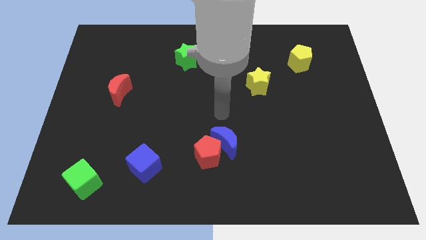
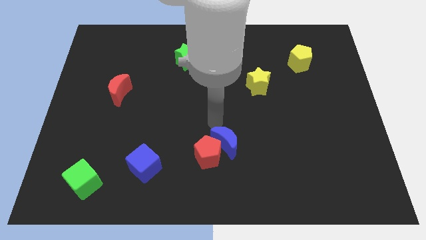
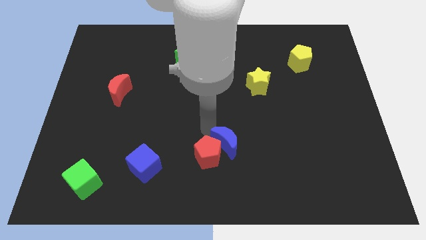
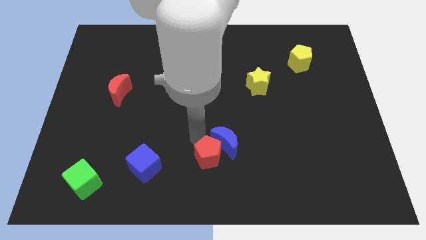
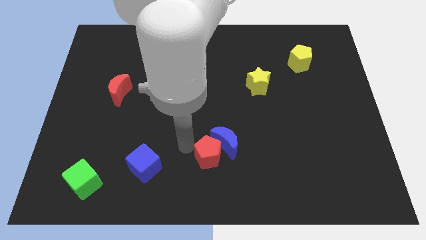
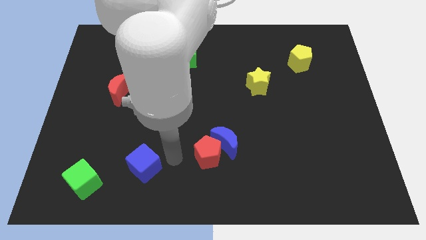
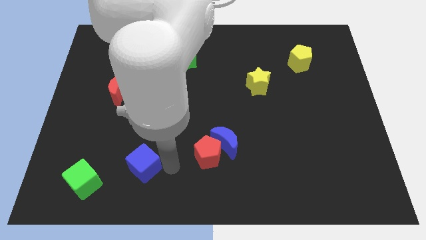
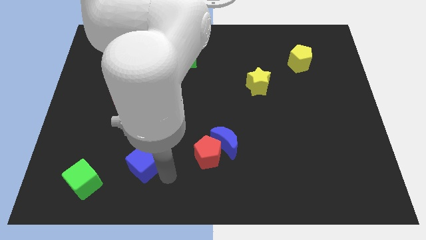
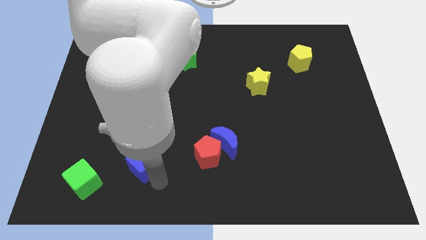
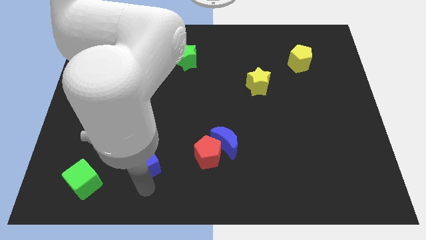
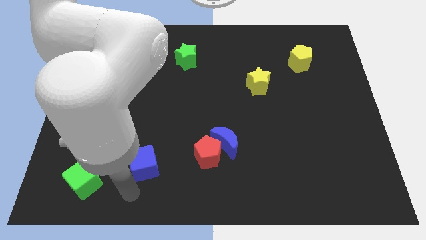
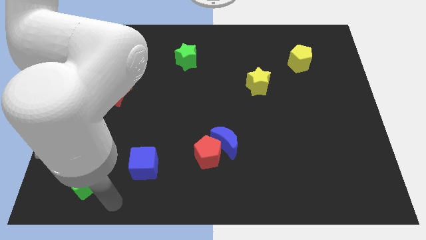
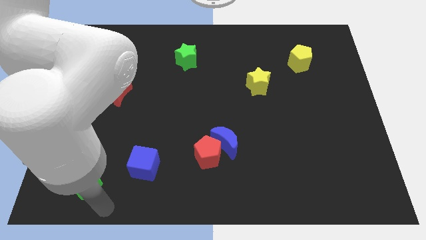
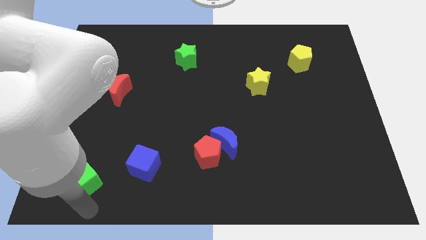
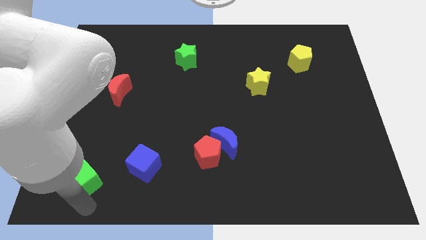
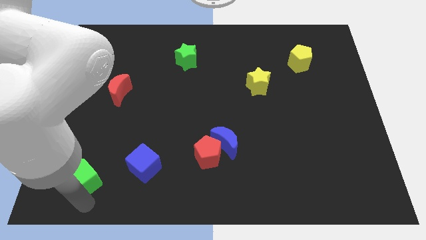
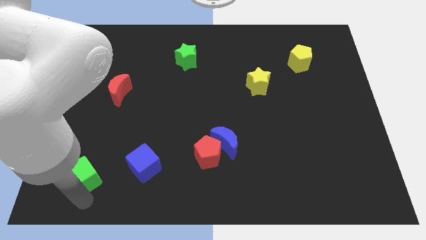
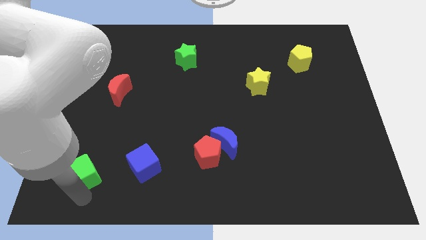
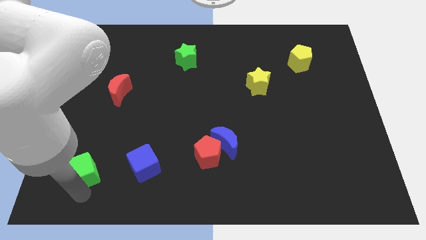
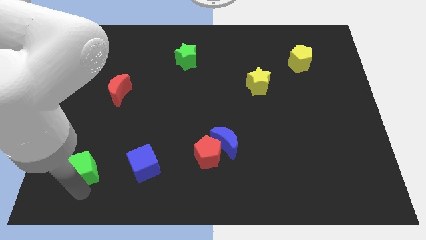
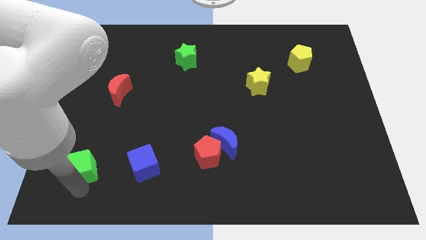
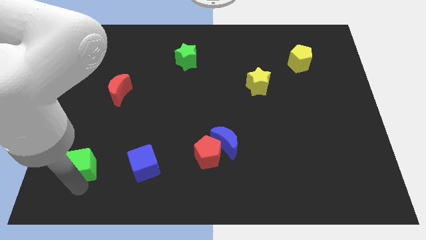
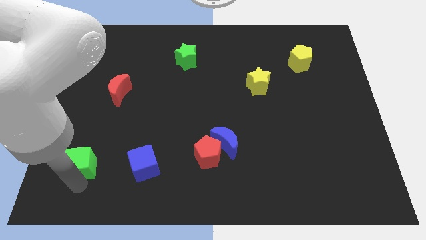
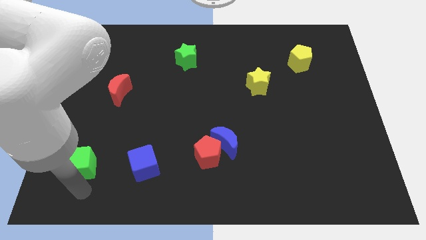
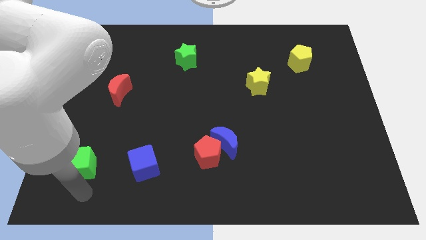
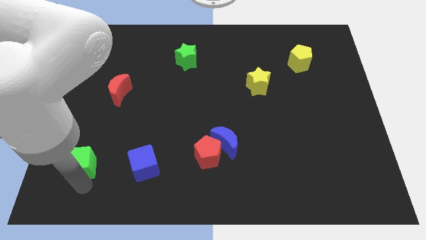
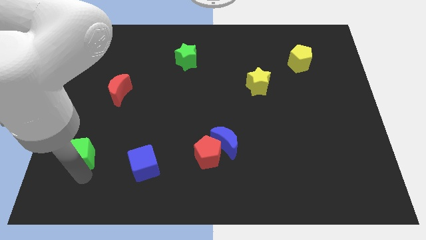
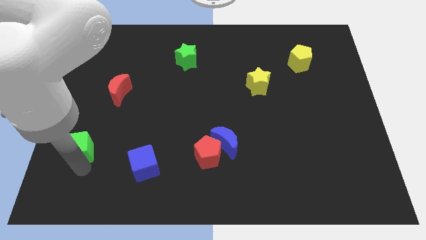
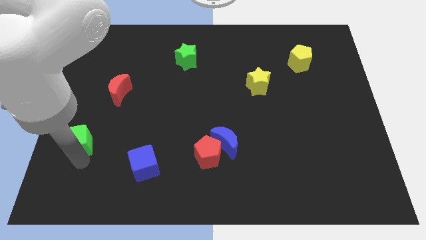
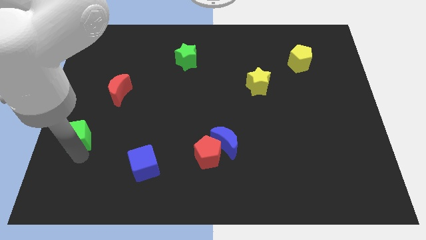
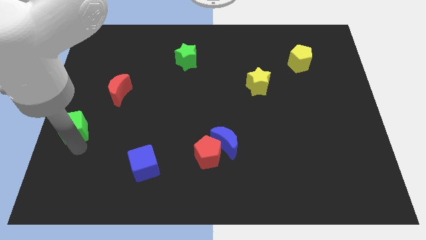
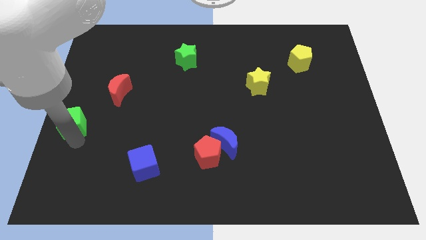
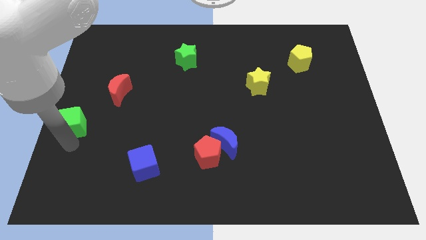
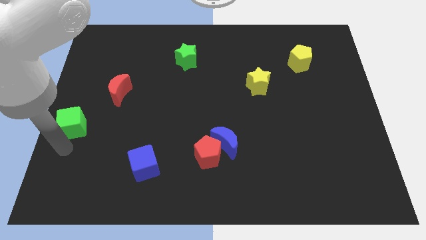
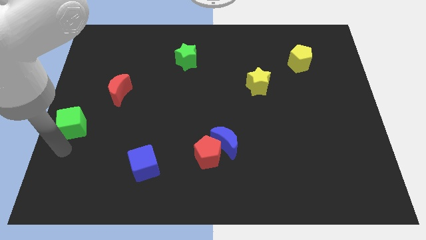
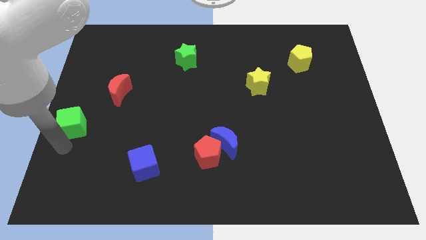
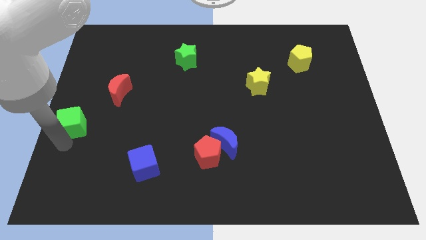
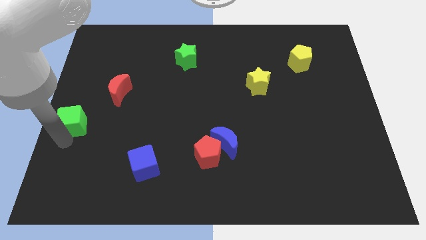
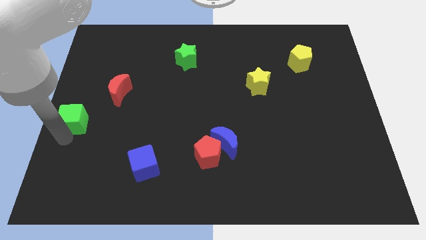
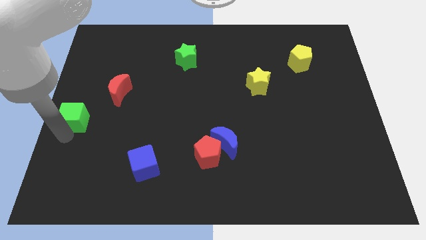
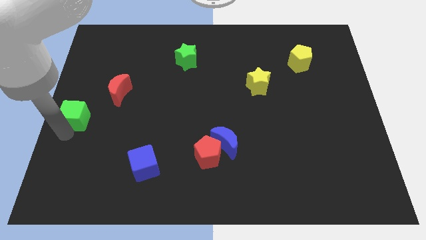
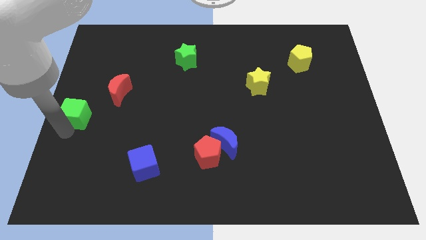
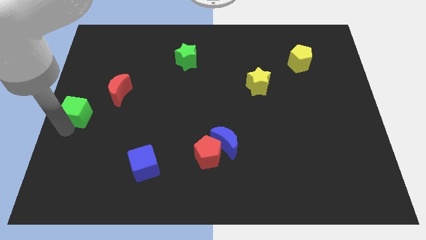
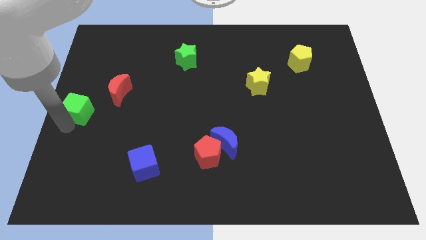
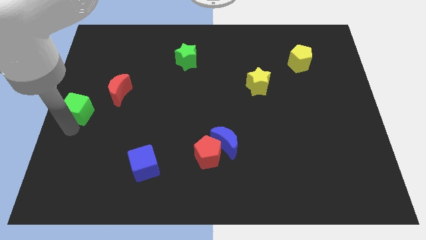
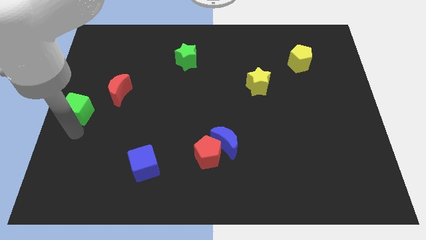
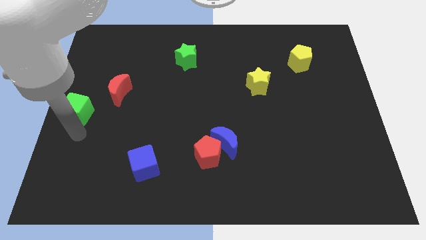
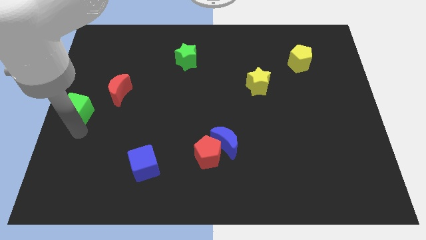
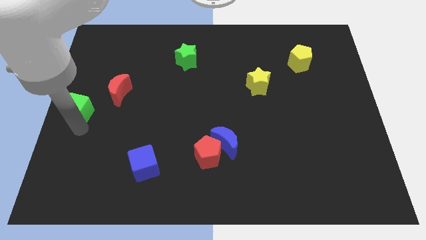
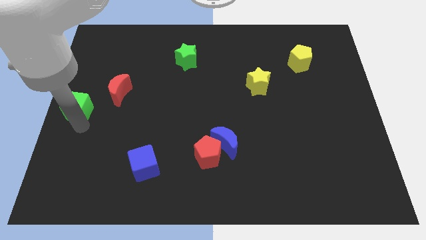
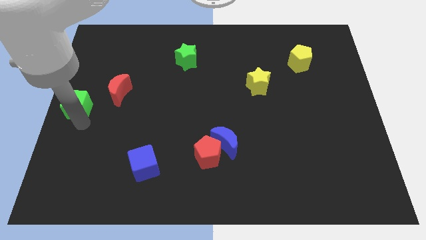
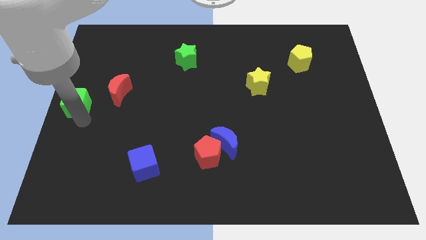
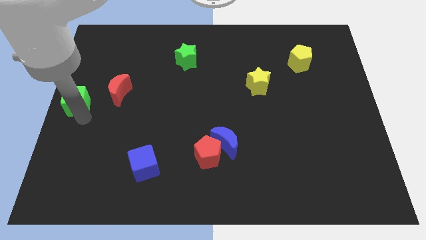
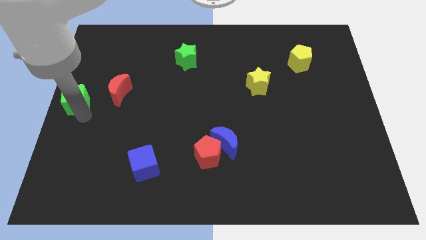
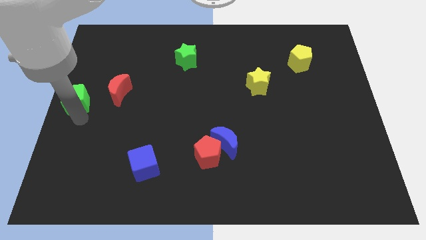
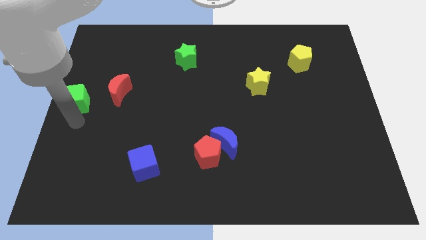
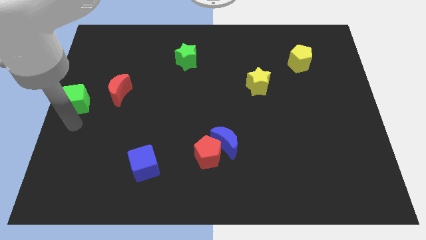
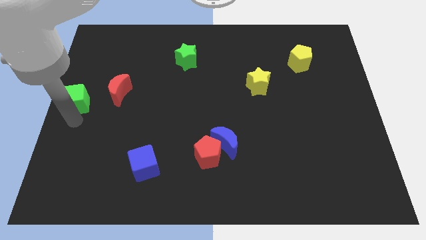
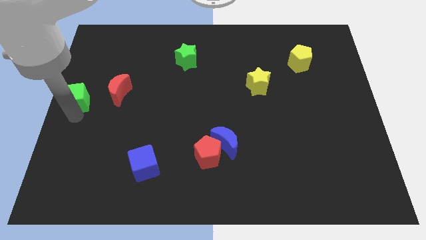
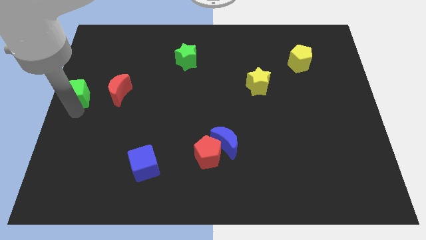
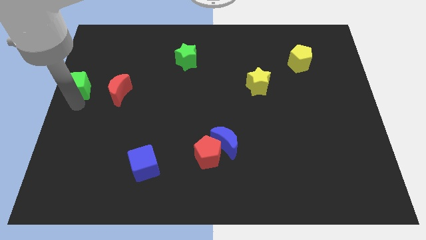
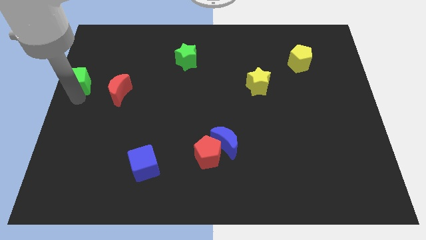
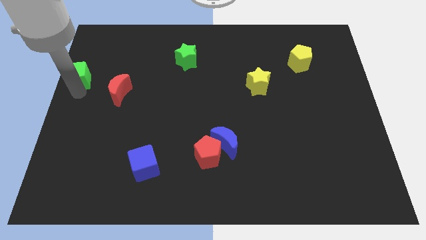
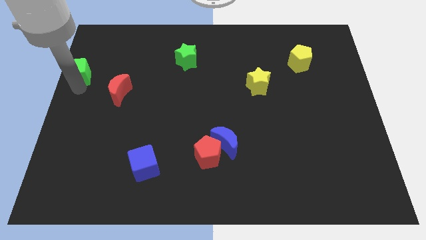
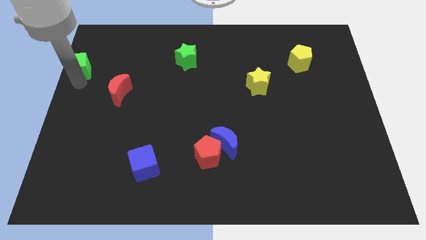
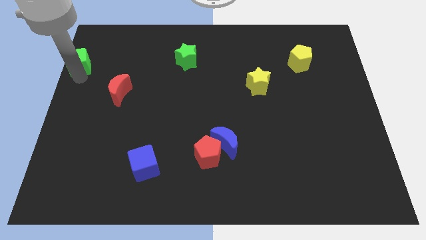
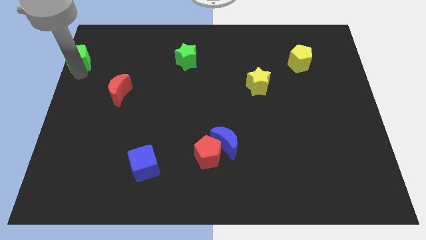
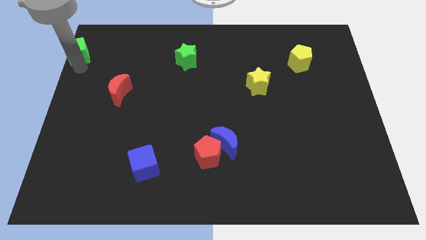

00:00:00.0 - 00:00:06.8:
push the green cube to the top left of the board
